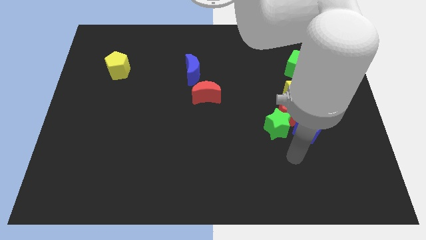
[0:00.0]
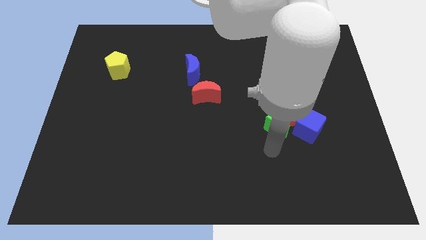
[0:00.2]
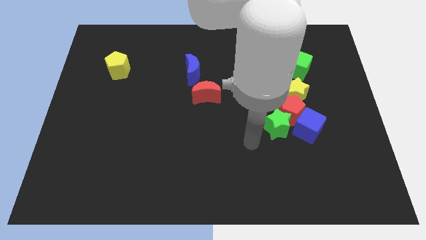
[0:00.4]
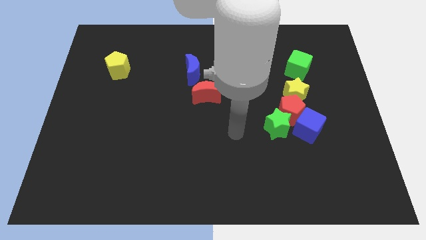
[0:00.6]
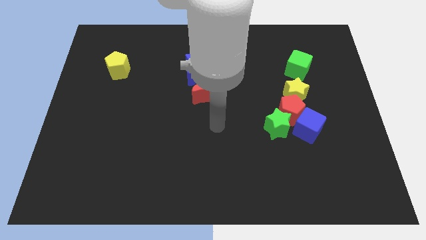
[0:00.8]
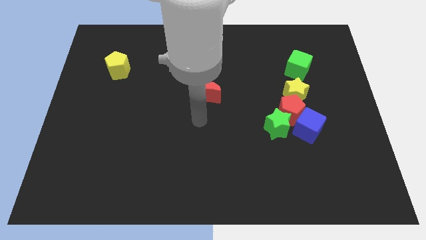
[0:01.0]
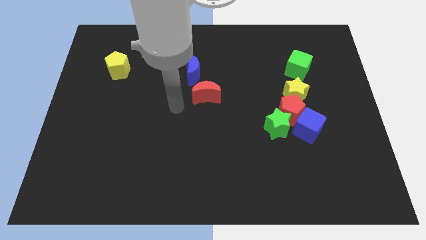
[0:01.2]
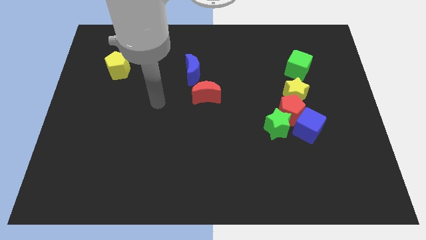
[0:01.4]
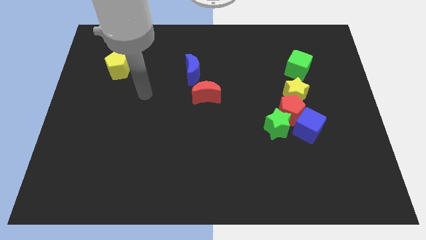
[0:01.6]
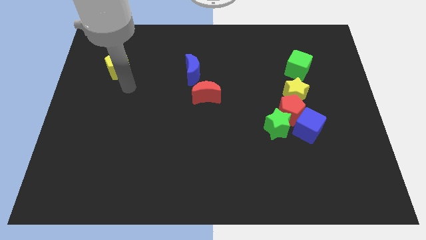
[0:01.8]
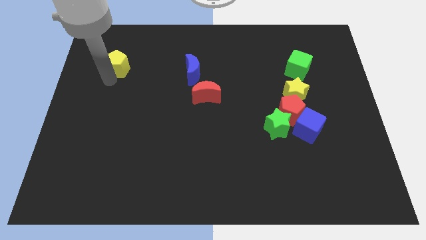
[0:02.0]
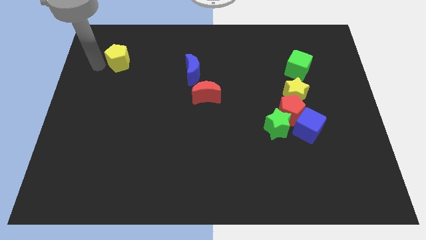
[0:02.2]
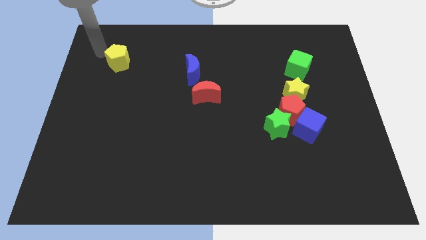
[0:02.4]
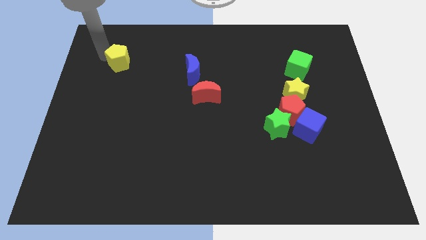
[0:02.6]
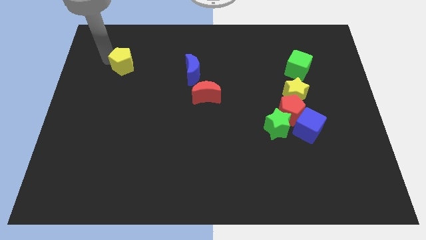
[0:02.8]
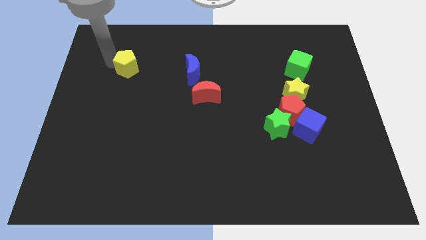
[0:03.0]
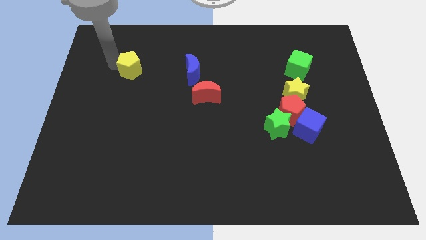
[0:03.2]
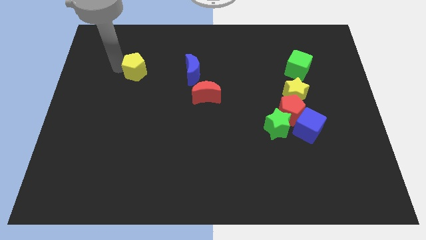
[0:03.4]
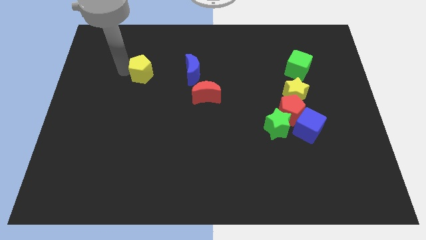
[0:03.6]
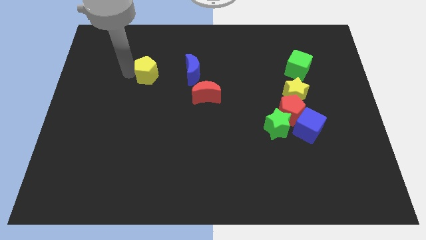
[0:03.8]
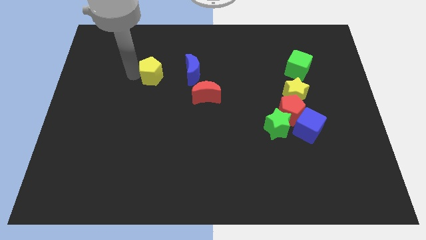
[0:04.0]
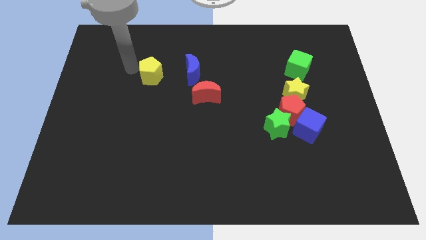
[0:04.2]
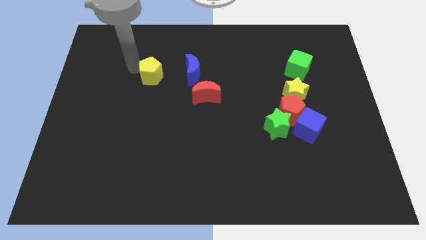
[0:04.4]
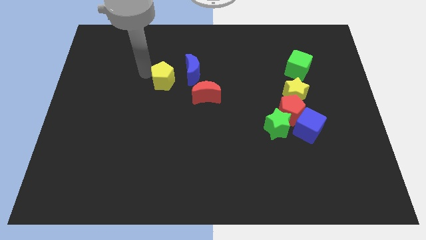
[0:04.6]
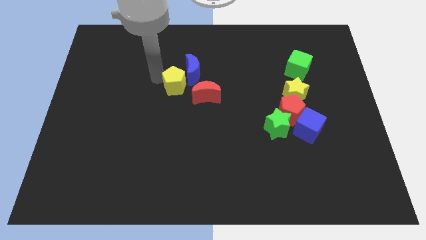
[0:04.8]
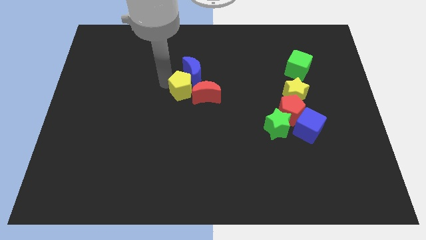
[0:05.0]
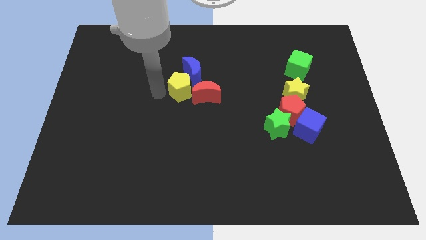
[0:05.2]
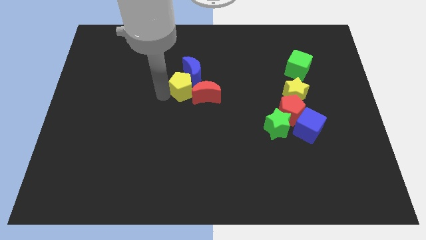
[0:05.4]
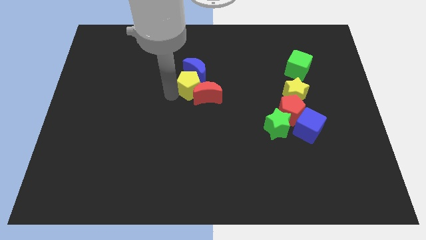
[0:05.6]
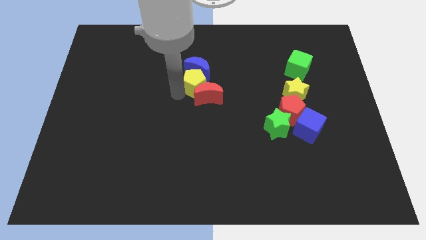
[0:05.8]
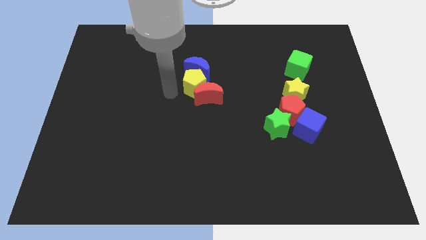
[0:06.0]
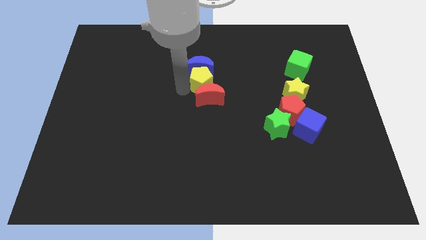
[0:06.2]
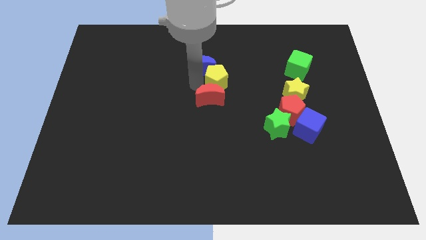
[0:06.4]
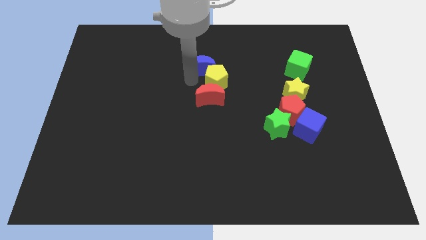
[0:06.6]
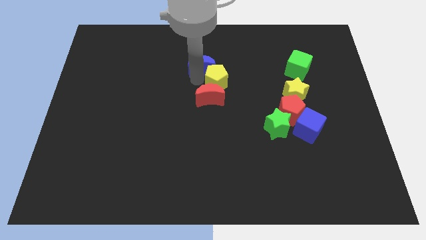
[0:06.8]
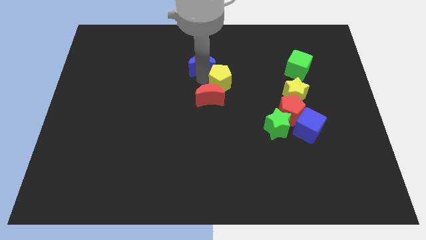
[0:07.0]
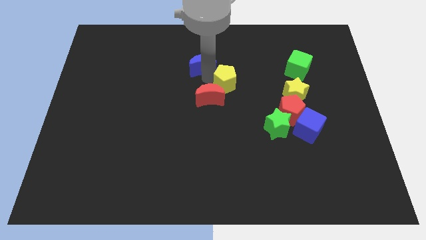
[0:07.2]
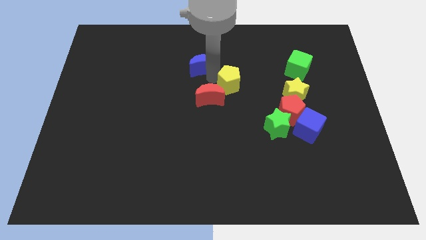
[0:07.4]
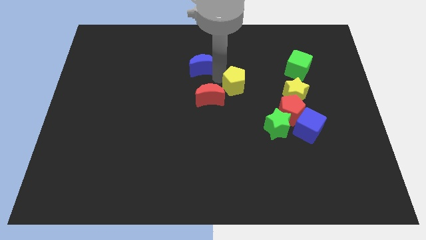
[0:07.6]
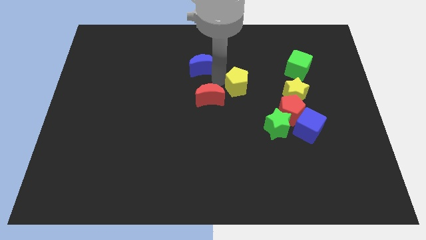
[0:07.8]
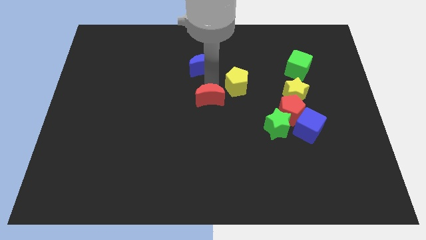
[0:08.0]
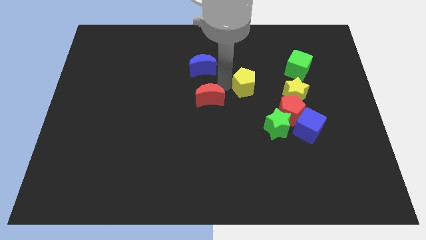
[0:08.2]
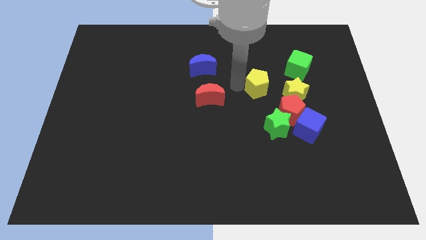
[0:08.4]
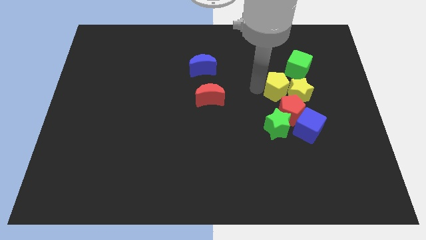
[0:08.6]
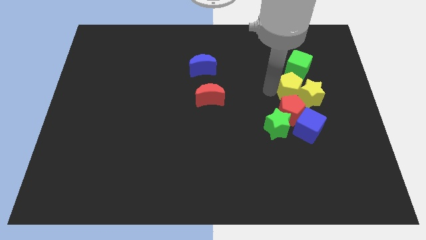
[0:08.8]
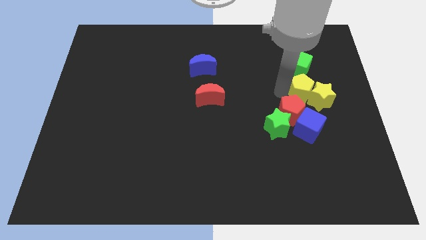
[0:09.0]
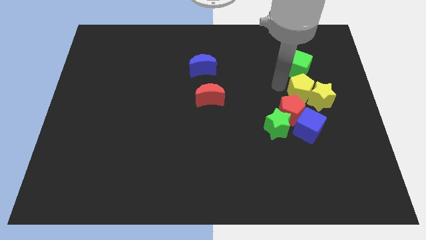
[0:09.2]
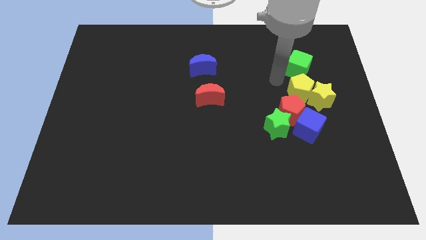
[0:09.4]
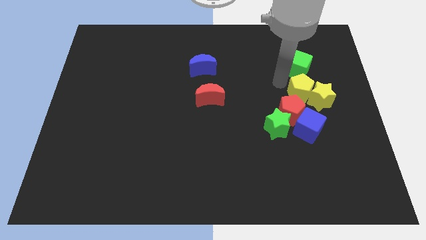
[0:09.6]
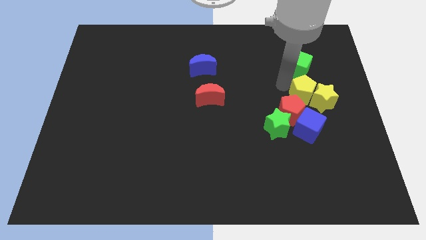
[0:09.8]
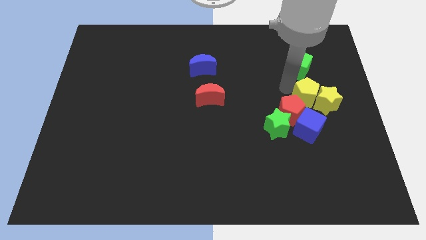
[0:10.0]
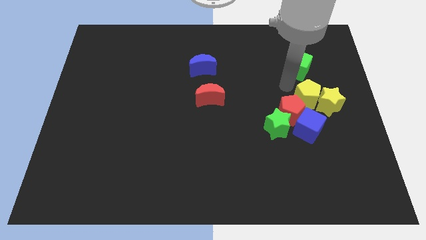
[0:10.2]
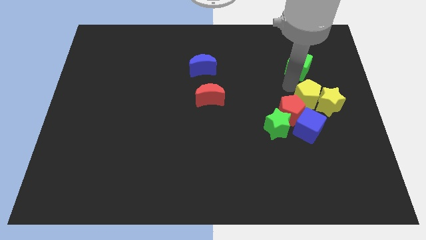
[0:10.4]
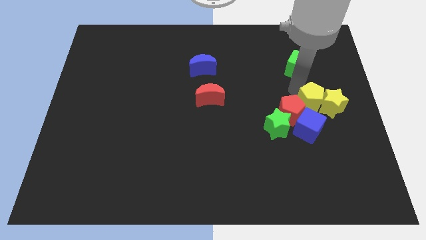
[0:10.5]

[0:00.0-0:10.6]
push the yellow pentagon diagonally up and to the right of the blue cube

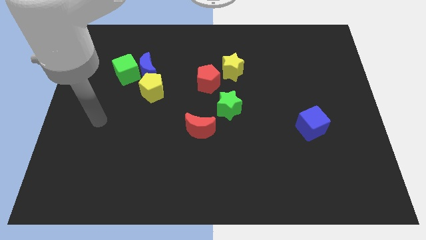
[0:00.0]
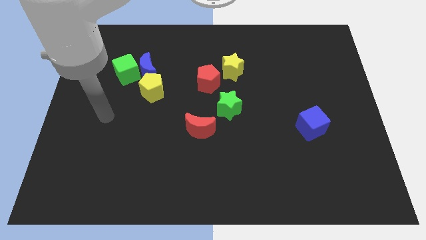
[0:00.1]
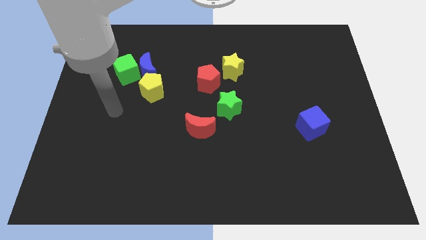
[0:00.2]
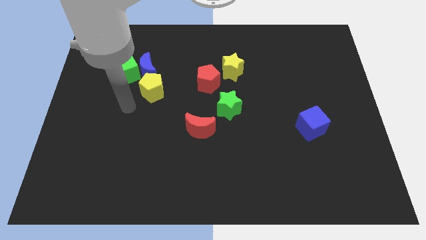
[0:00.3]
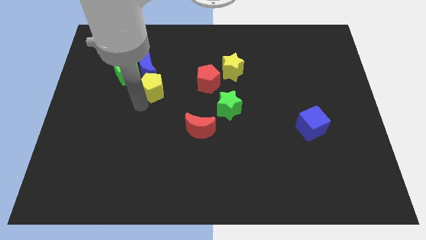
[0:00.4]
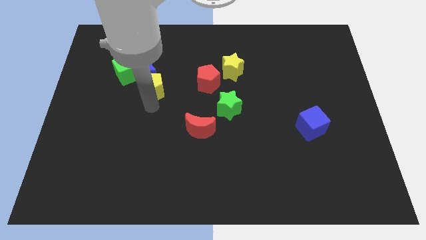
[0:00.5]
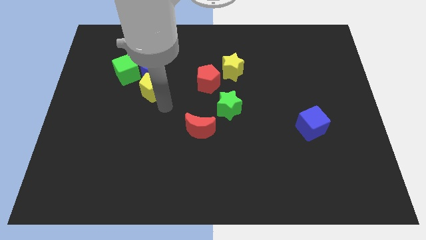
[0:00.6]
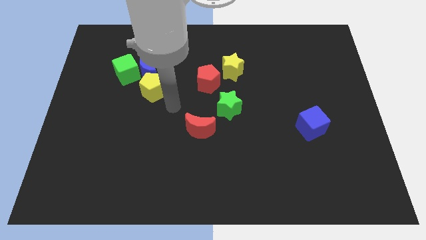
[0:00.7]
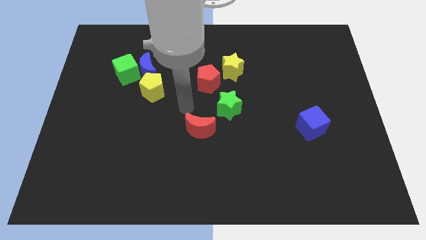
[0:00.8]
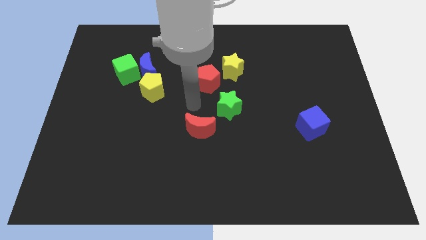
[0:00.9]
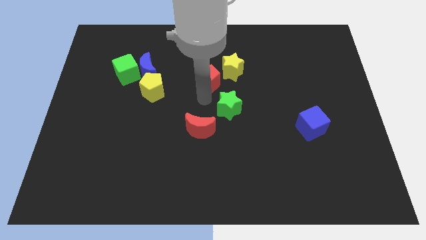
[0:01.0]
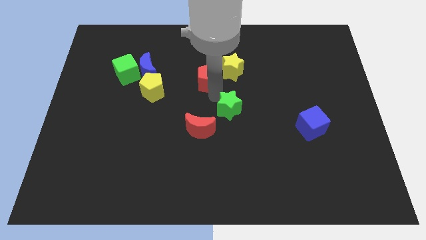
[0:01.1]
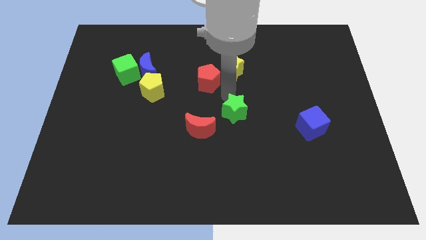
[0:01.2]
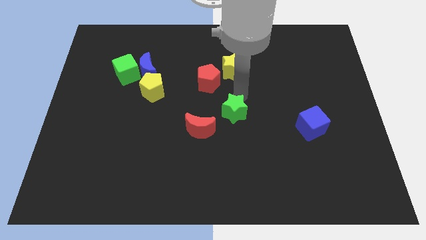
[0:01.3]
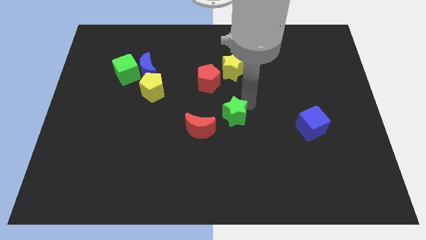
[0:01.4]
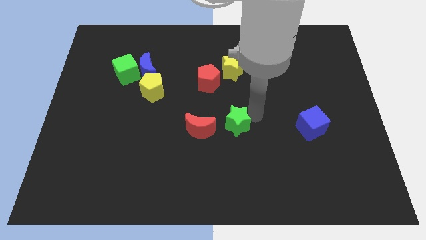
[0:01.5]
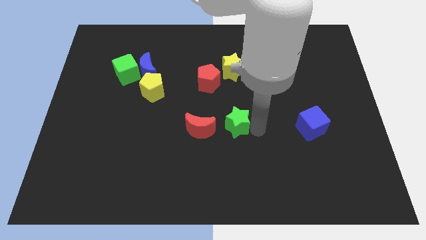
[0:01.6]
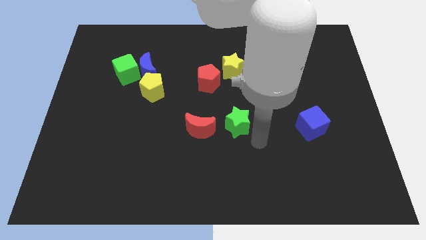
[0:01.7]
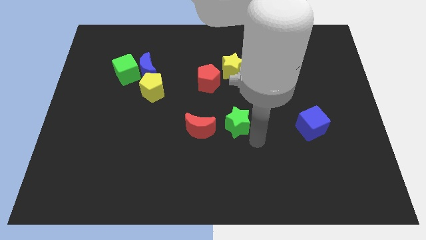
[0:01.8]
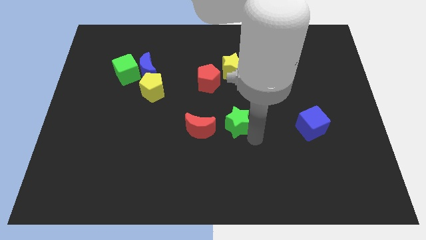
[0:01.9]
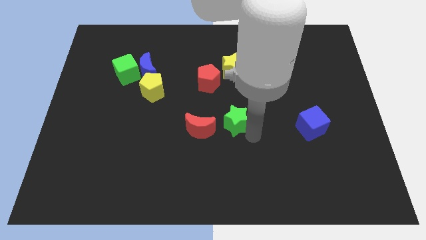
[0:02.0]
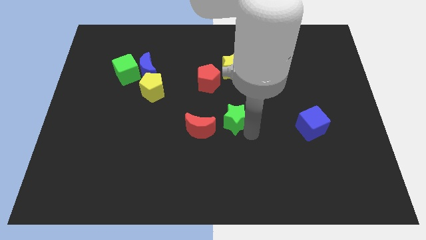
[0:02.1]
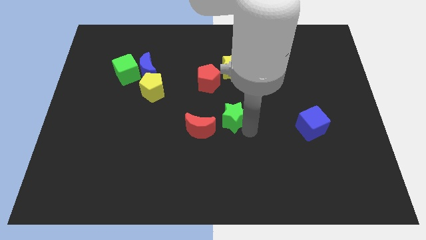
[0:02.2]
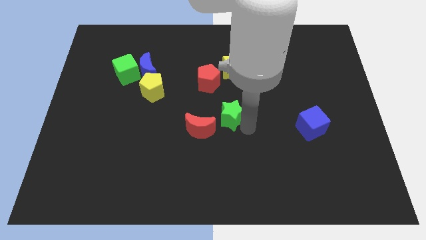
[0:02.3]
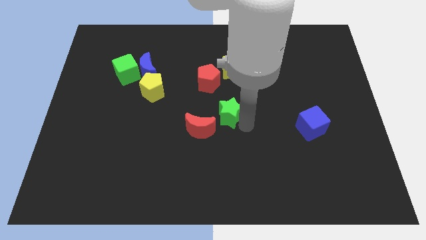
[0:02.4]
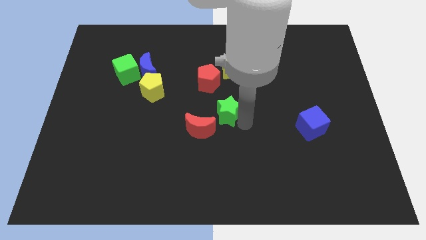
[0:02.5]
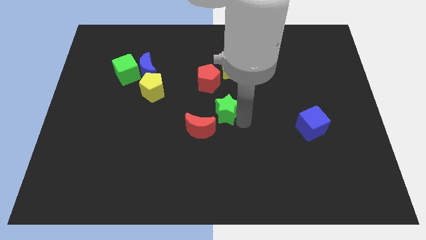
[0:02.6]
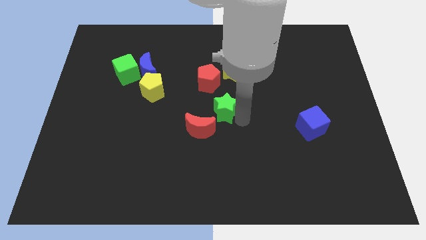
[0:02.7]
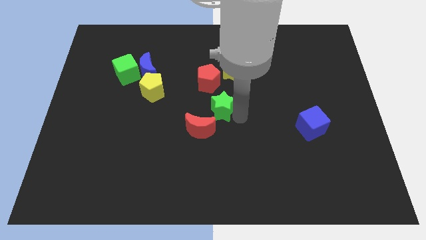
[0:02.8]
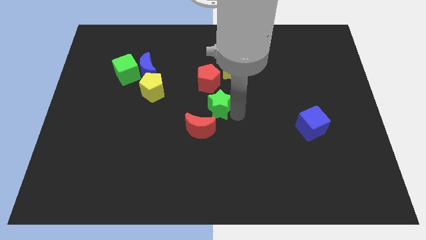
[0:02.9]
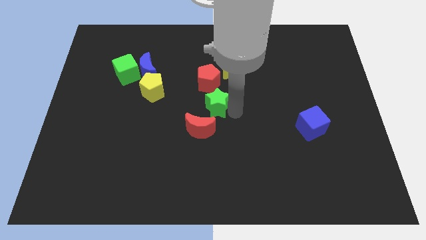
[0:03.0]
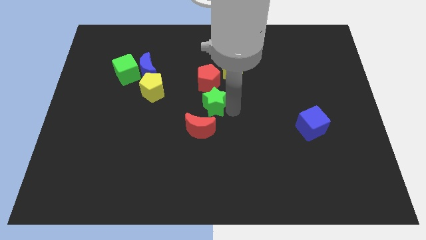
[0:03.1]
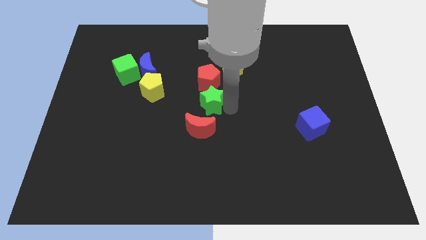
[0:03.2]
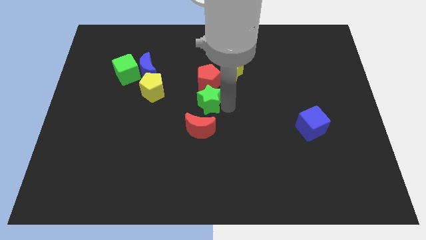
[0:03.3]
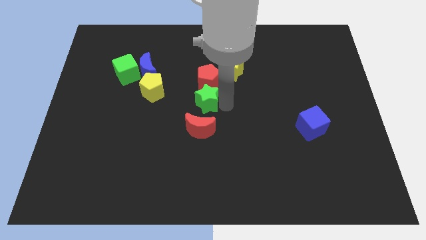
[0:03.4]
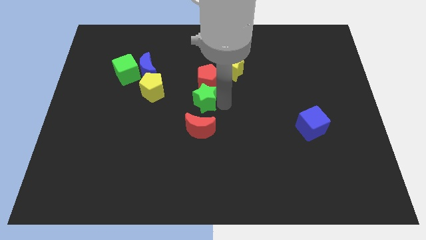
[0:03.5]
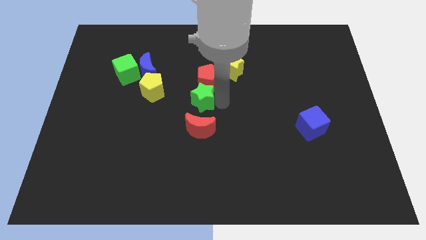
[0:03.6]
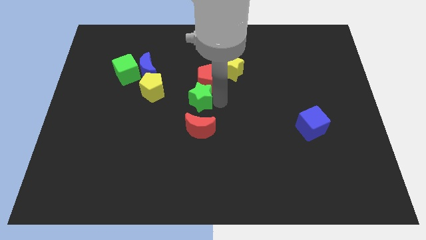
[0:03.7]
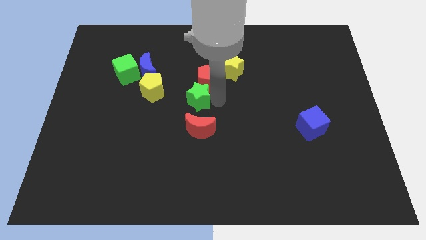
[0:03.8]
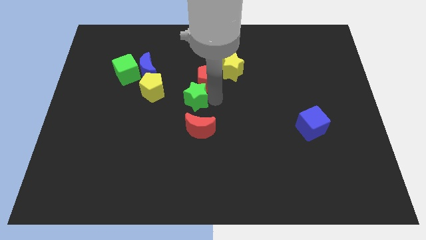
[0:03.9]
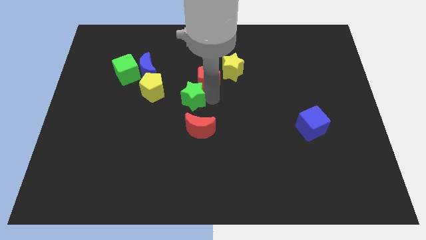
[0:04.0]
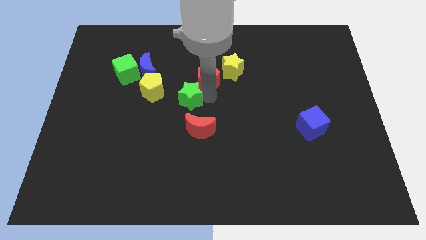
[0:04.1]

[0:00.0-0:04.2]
move the green star to the bottom right of the yellow pentagon
